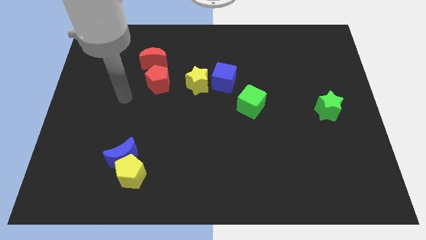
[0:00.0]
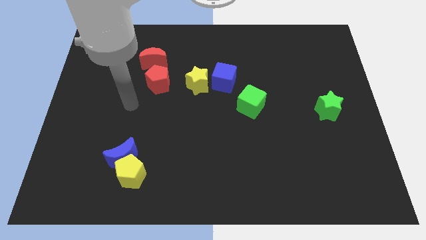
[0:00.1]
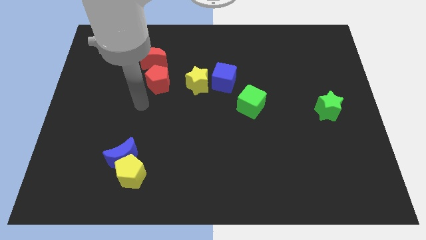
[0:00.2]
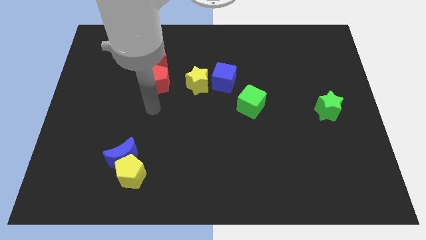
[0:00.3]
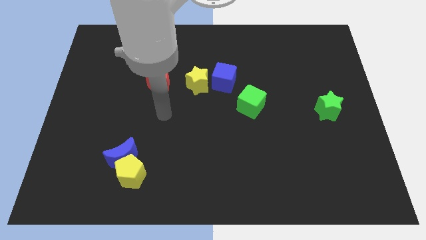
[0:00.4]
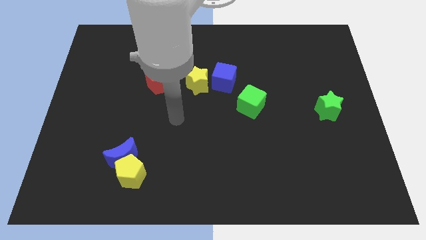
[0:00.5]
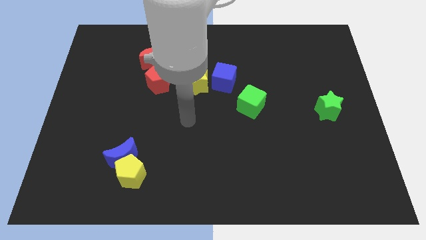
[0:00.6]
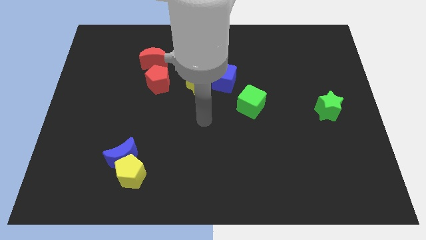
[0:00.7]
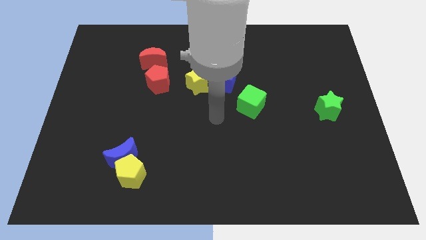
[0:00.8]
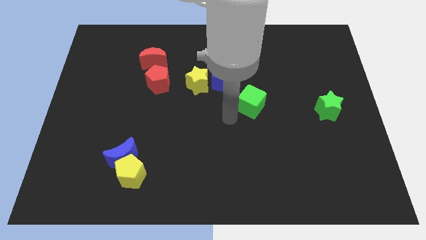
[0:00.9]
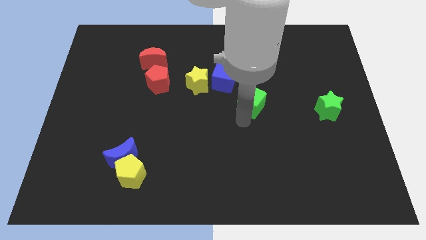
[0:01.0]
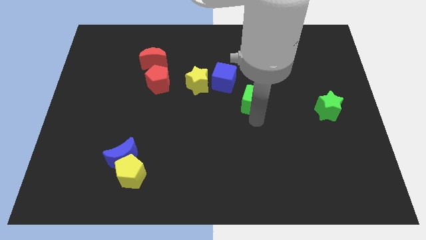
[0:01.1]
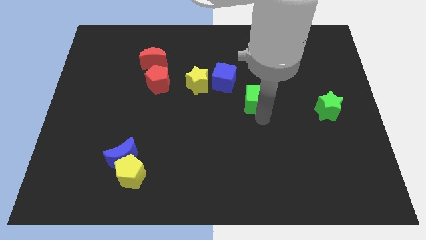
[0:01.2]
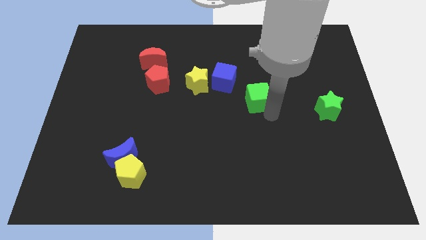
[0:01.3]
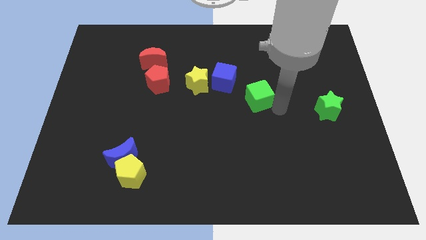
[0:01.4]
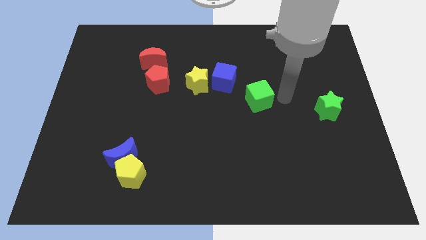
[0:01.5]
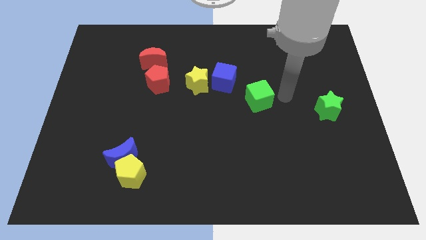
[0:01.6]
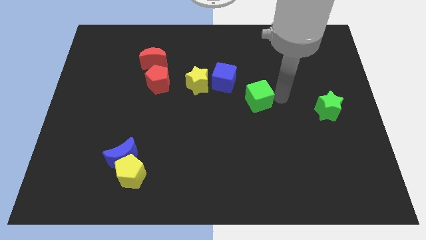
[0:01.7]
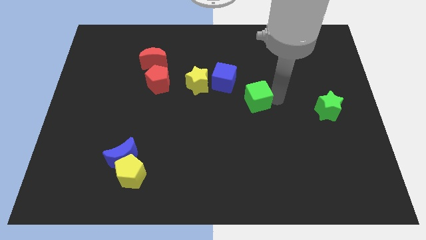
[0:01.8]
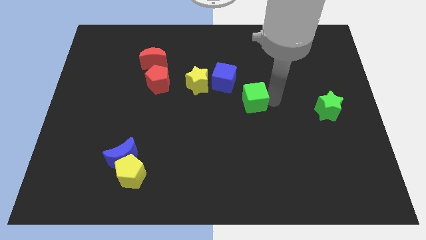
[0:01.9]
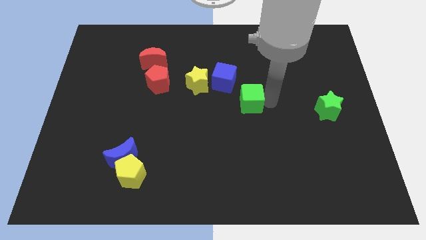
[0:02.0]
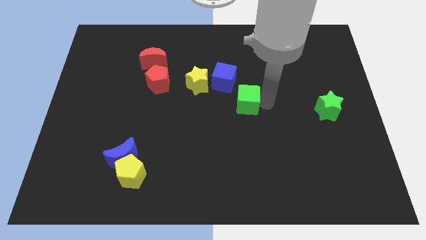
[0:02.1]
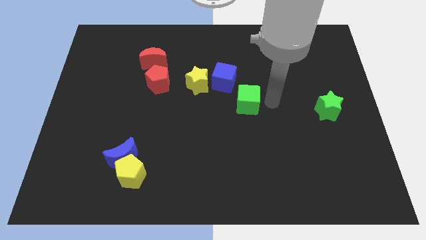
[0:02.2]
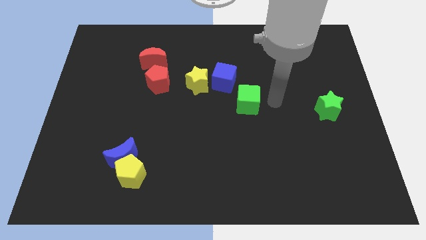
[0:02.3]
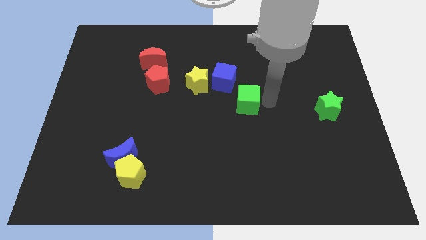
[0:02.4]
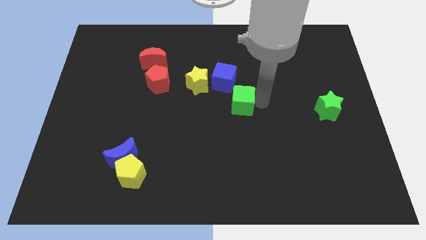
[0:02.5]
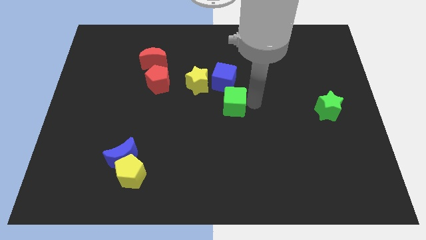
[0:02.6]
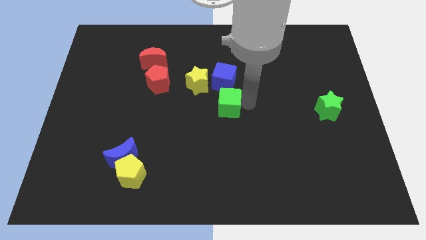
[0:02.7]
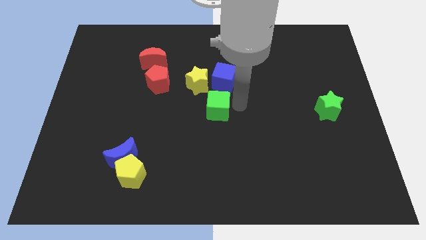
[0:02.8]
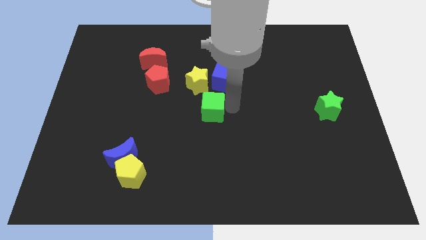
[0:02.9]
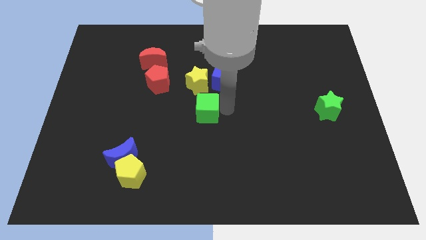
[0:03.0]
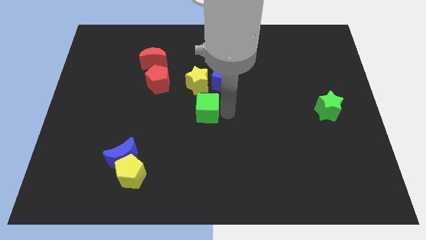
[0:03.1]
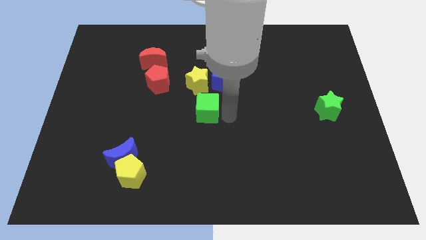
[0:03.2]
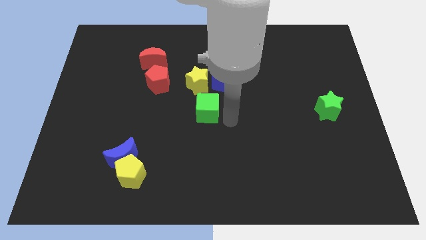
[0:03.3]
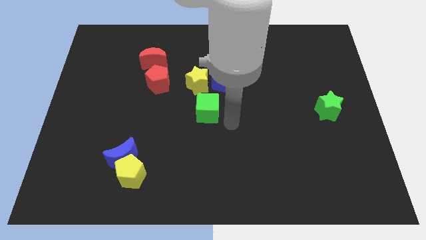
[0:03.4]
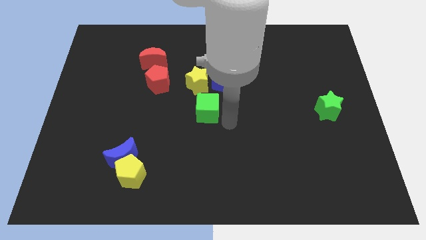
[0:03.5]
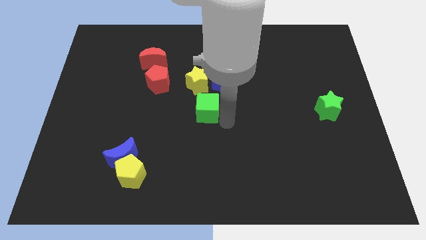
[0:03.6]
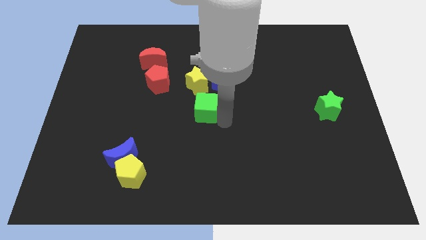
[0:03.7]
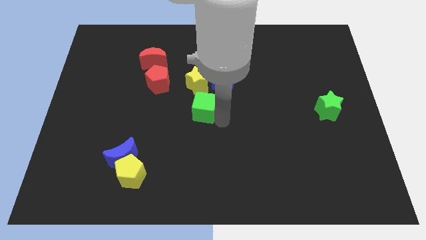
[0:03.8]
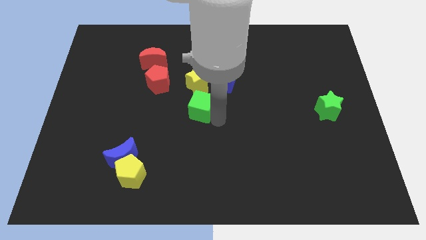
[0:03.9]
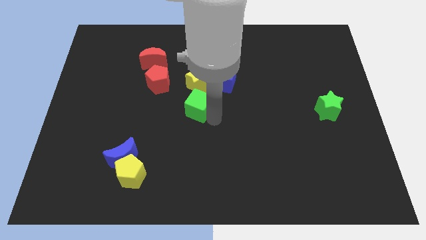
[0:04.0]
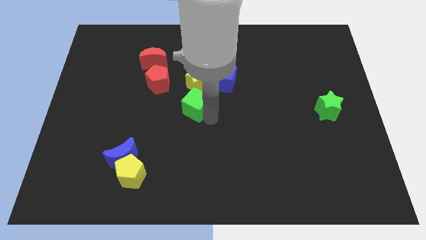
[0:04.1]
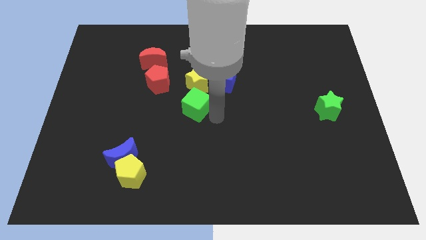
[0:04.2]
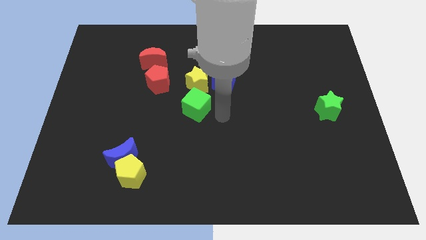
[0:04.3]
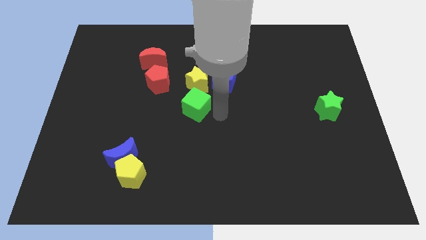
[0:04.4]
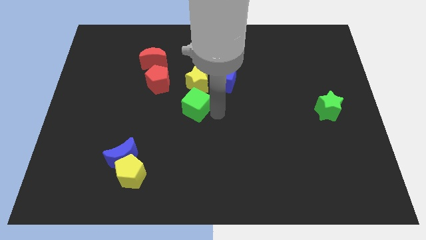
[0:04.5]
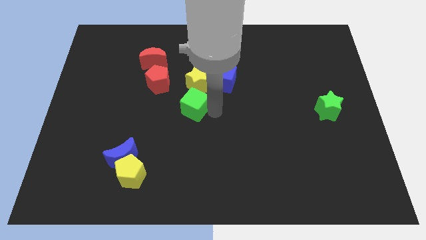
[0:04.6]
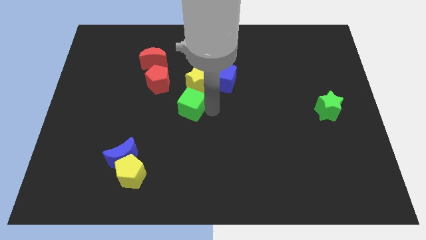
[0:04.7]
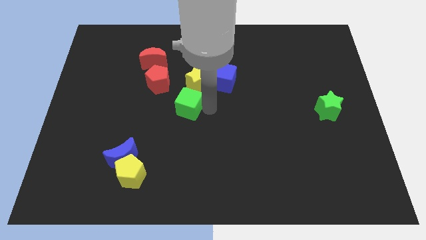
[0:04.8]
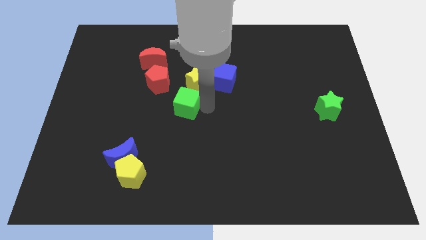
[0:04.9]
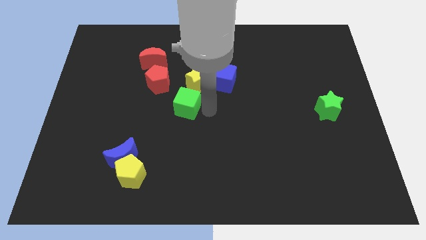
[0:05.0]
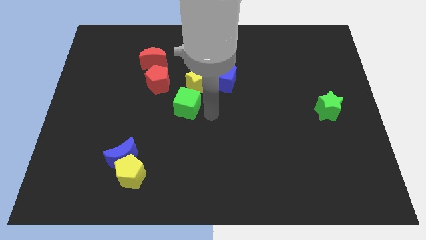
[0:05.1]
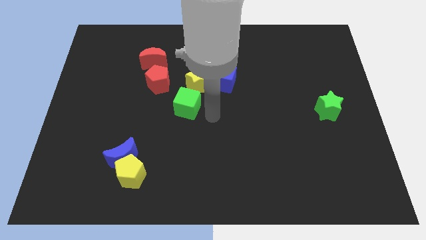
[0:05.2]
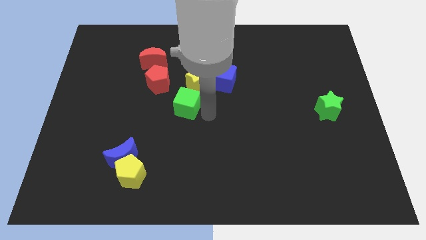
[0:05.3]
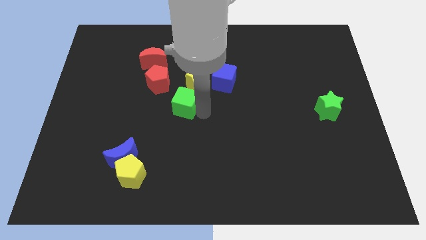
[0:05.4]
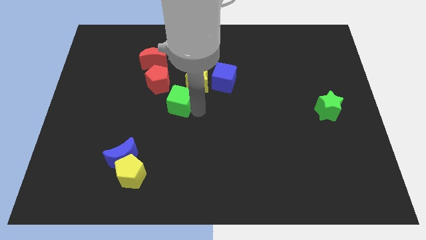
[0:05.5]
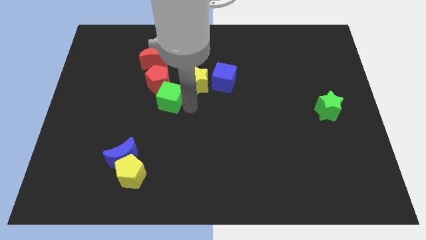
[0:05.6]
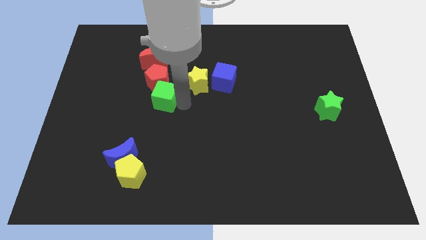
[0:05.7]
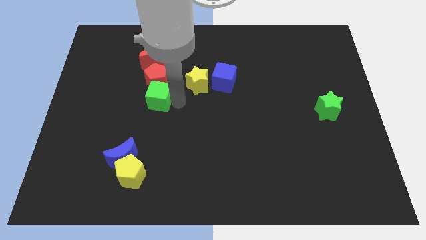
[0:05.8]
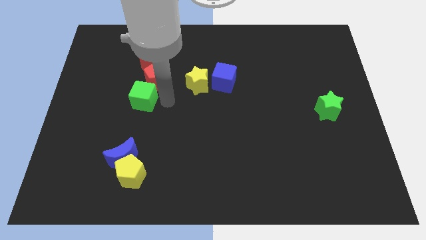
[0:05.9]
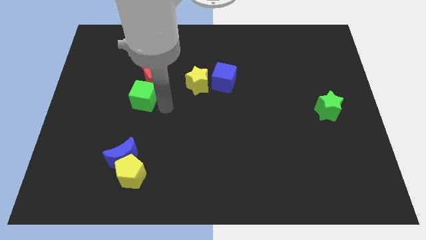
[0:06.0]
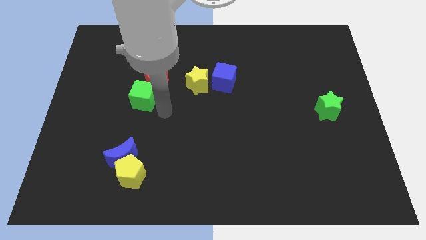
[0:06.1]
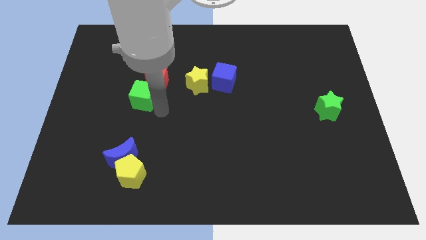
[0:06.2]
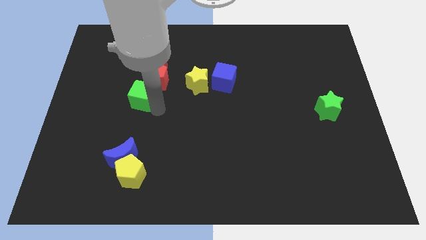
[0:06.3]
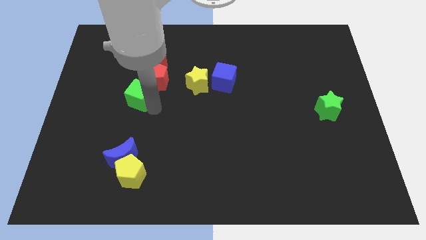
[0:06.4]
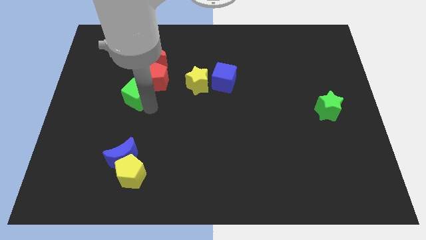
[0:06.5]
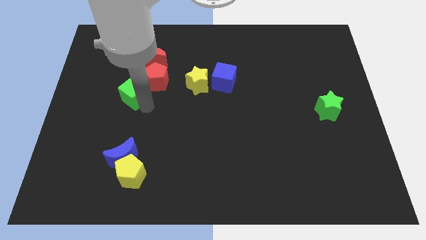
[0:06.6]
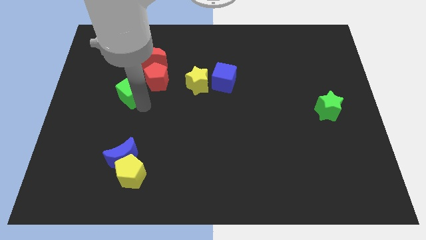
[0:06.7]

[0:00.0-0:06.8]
move the green cube just left of the red pentagon
